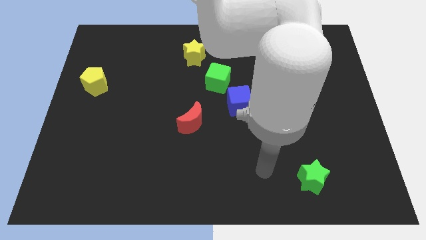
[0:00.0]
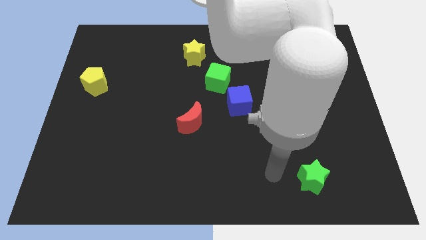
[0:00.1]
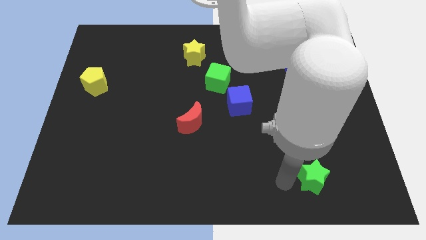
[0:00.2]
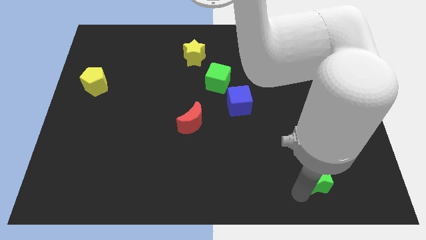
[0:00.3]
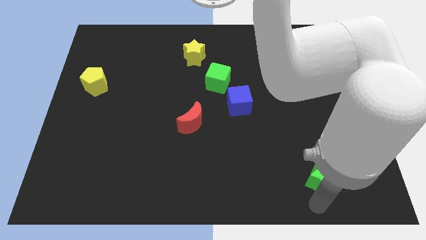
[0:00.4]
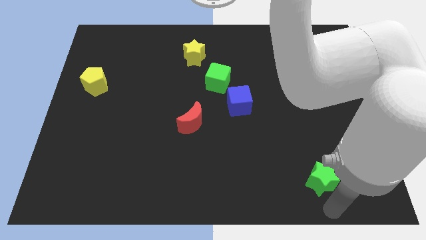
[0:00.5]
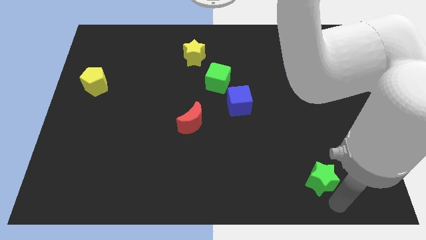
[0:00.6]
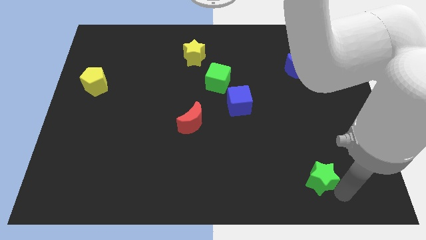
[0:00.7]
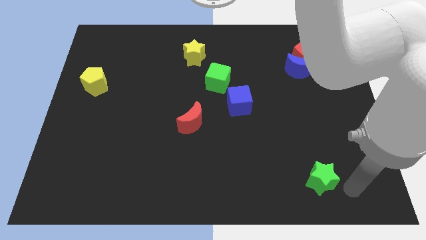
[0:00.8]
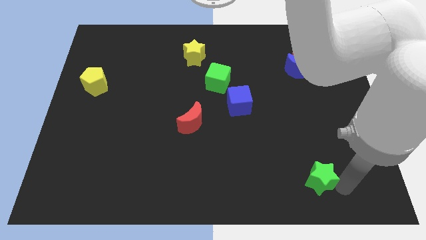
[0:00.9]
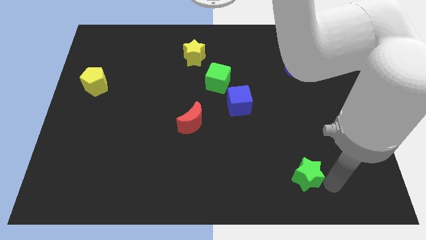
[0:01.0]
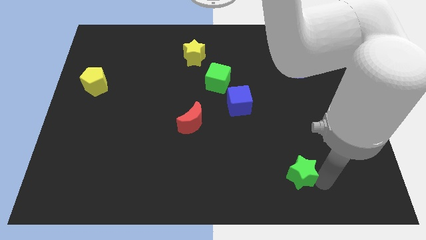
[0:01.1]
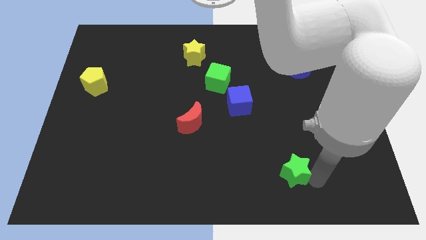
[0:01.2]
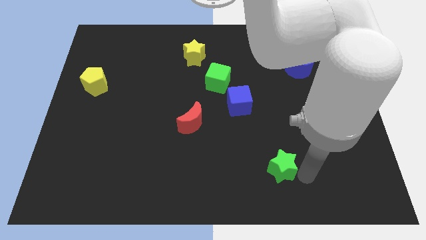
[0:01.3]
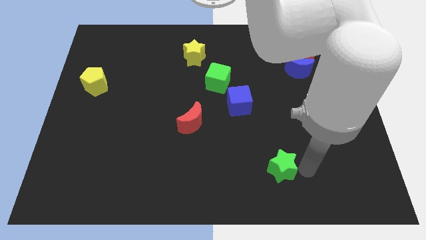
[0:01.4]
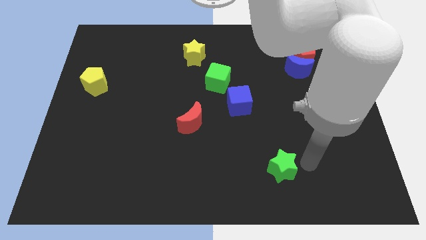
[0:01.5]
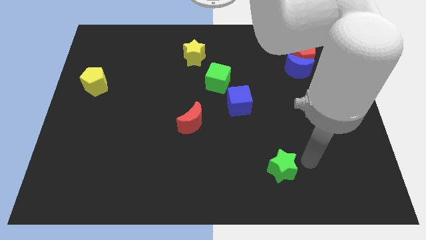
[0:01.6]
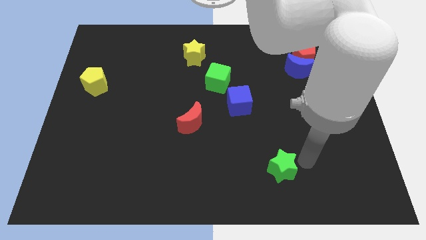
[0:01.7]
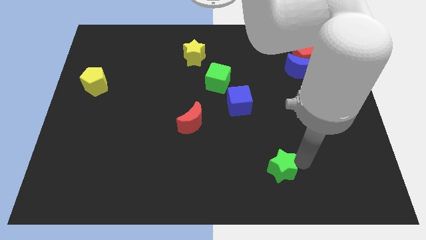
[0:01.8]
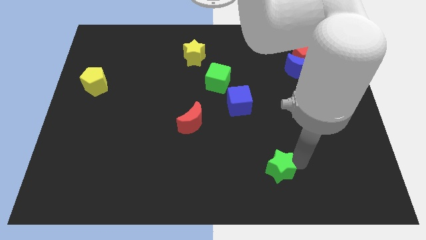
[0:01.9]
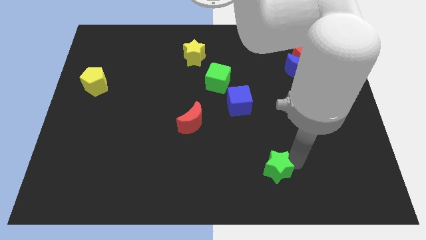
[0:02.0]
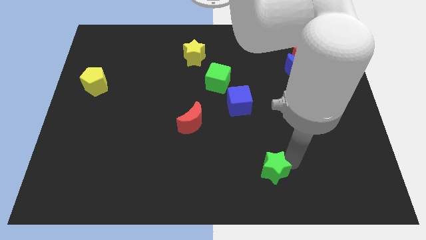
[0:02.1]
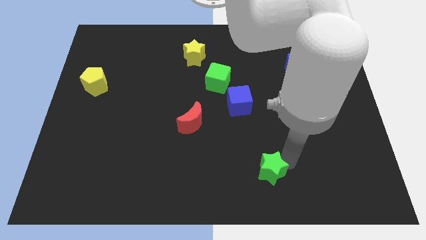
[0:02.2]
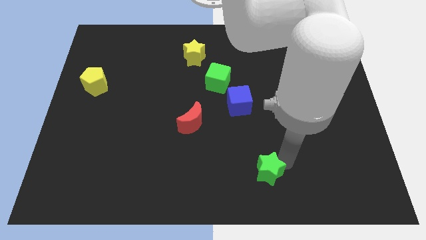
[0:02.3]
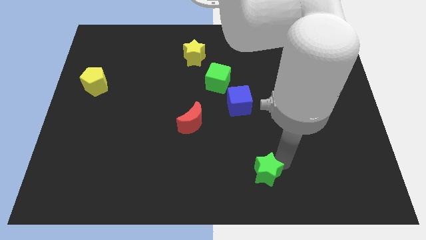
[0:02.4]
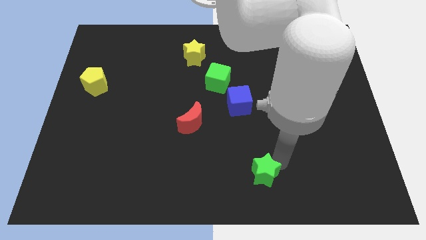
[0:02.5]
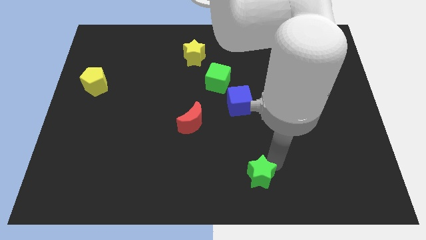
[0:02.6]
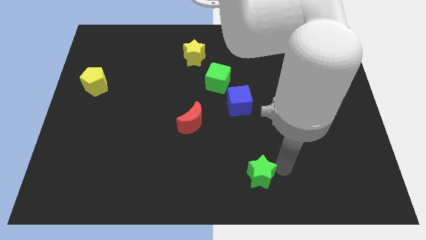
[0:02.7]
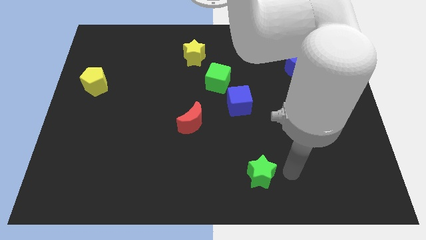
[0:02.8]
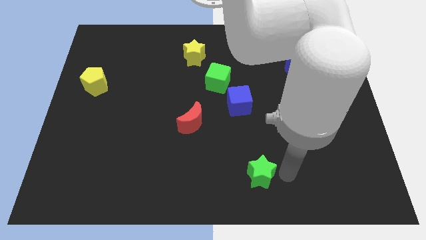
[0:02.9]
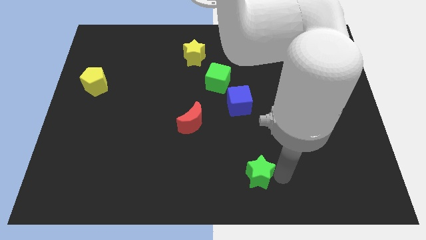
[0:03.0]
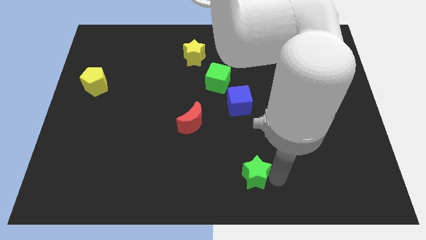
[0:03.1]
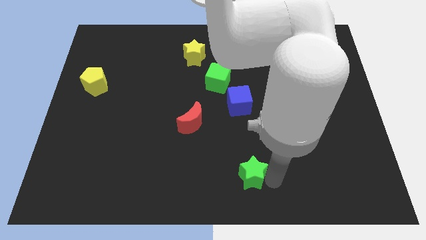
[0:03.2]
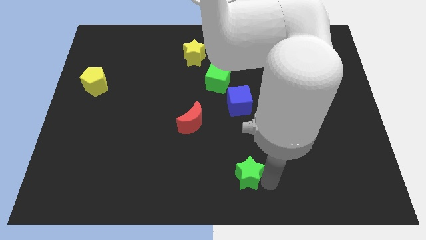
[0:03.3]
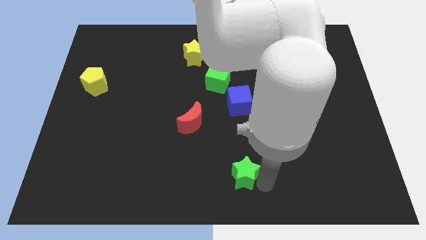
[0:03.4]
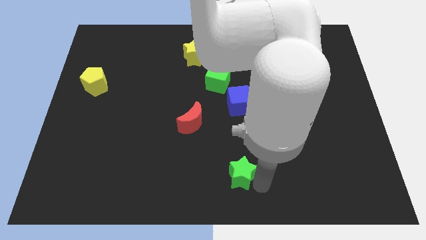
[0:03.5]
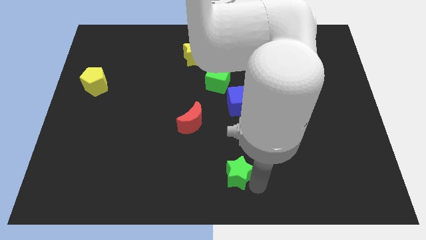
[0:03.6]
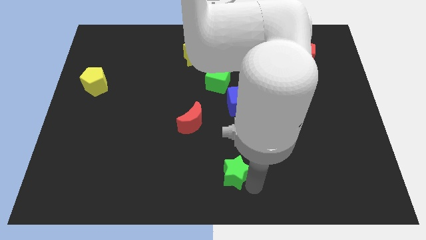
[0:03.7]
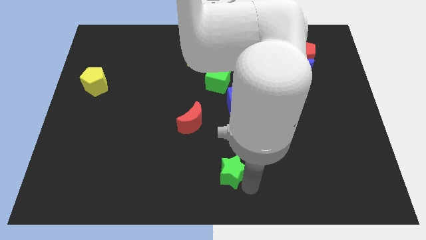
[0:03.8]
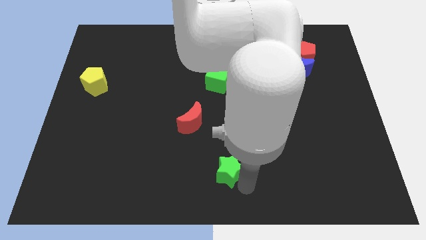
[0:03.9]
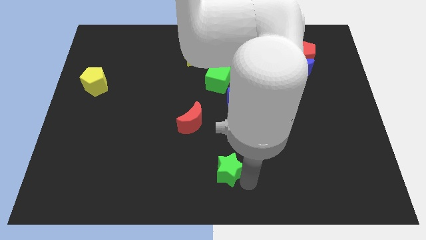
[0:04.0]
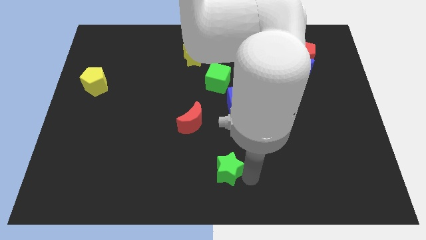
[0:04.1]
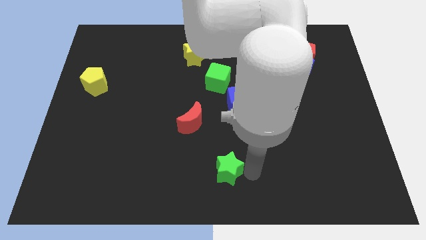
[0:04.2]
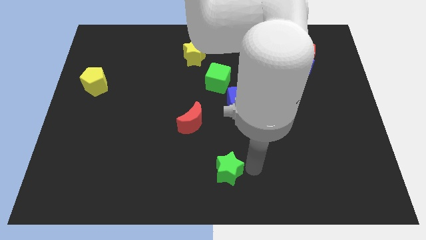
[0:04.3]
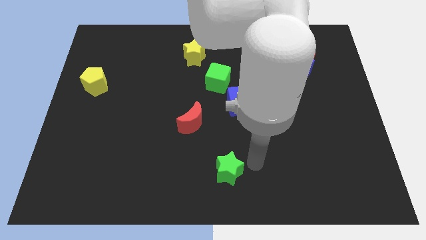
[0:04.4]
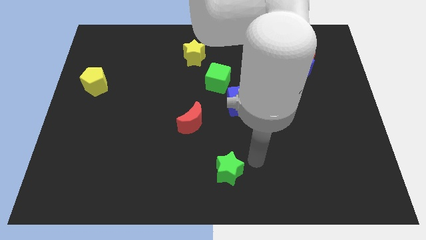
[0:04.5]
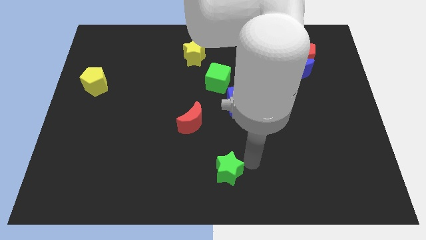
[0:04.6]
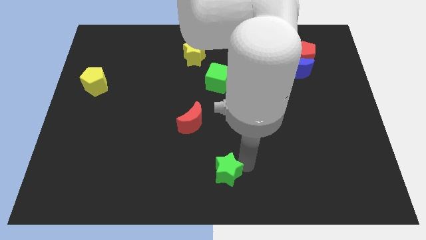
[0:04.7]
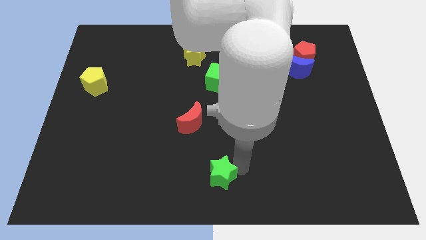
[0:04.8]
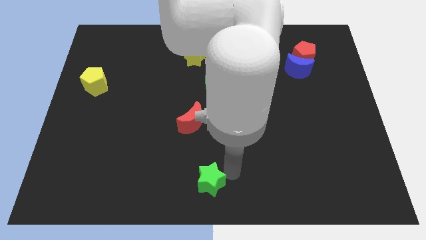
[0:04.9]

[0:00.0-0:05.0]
move the green star to the left

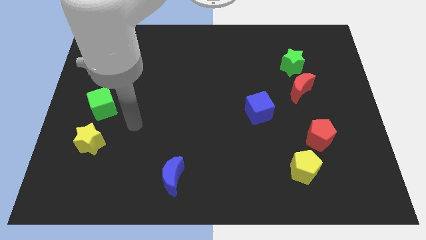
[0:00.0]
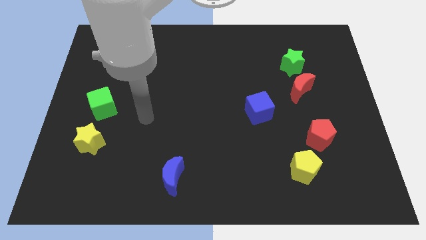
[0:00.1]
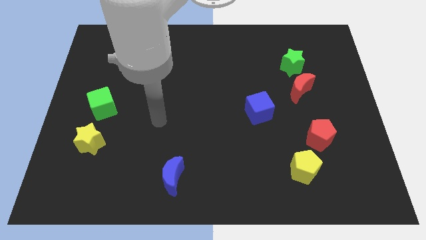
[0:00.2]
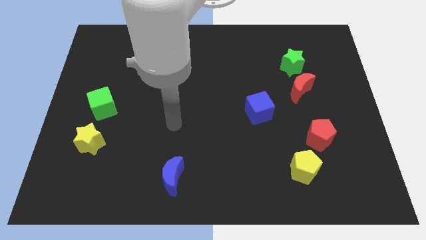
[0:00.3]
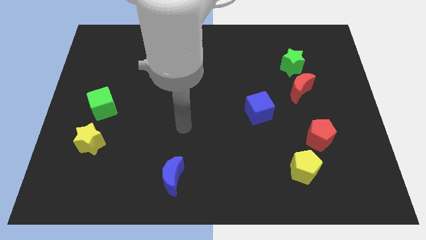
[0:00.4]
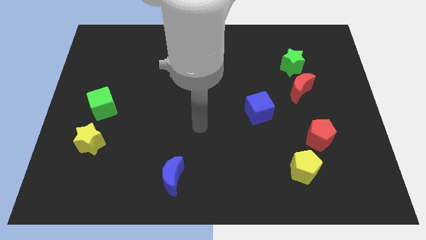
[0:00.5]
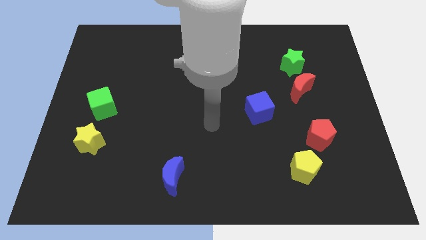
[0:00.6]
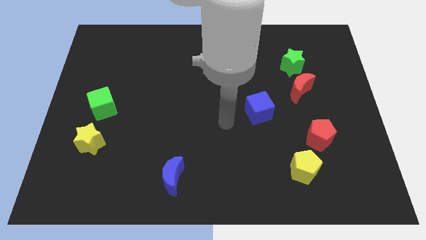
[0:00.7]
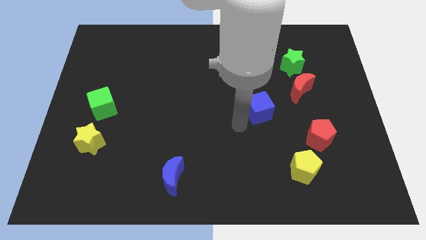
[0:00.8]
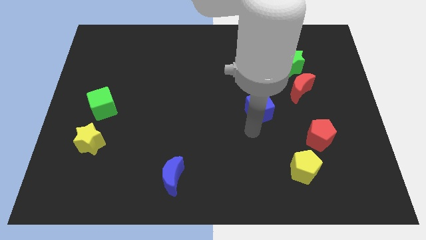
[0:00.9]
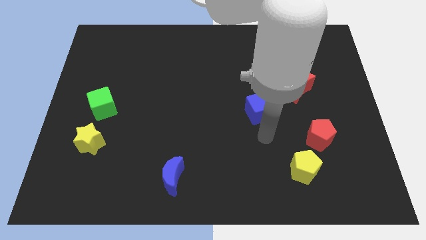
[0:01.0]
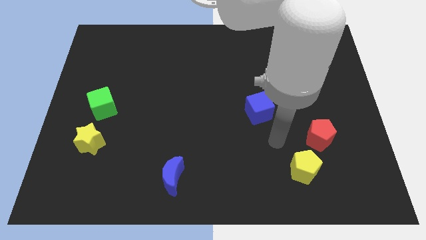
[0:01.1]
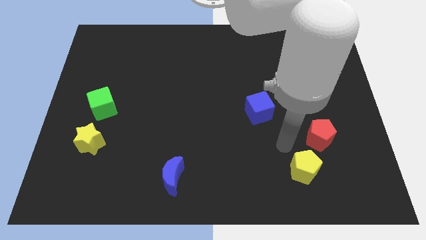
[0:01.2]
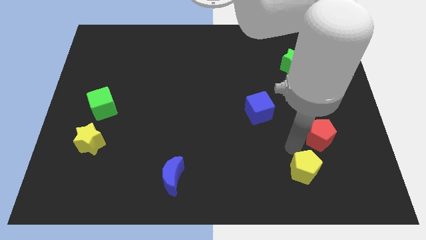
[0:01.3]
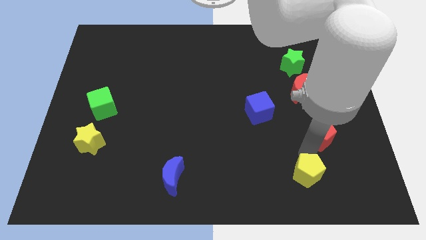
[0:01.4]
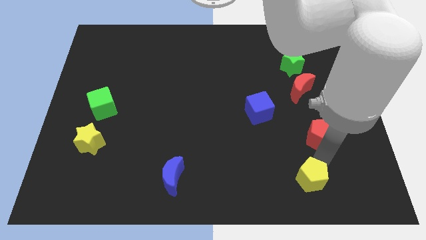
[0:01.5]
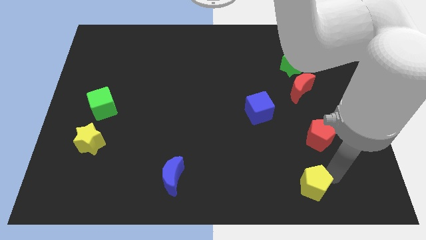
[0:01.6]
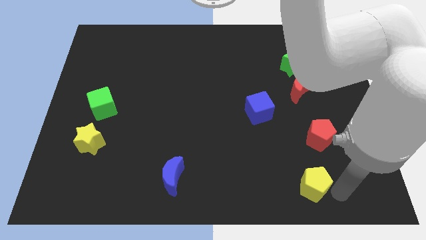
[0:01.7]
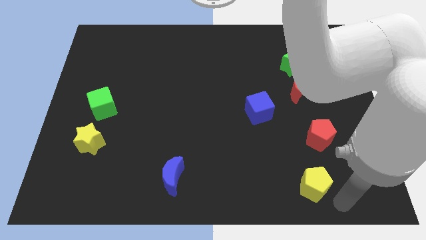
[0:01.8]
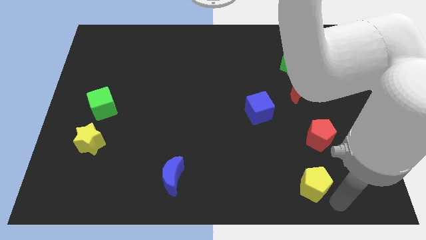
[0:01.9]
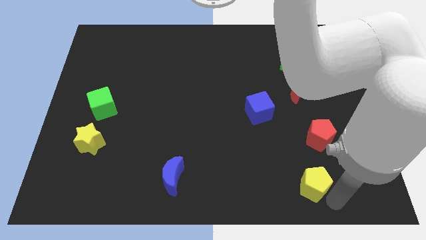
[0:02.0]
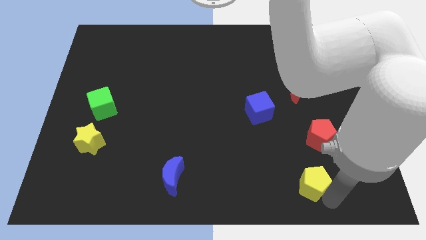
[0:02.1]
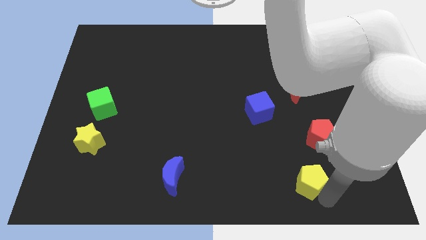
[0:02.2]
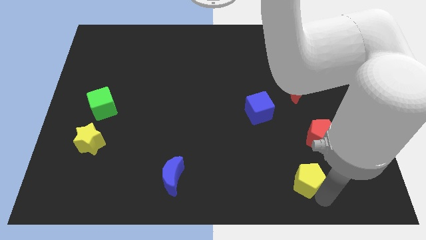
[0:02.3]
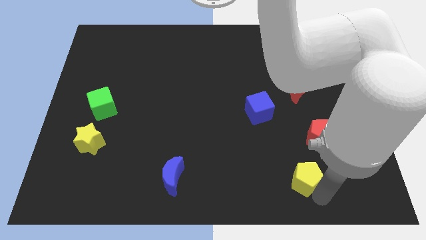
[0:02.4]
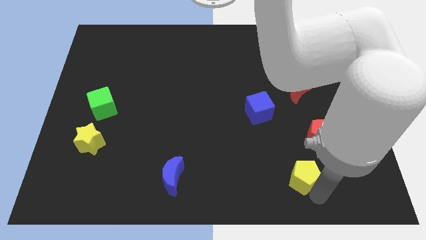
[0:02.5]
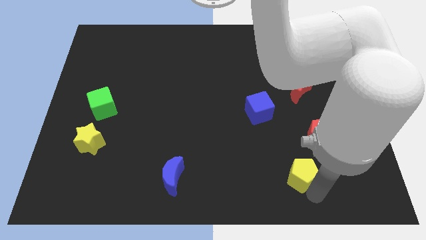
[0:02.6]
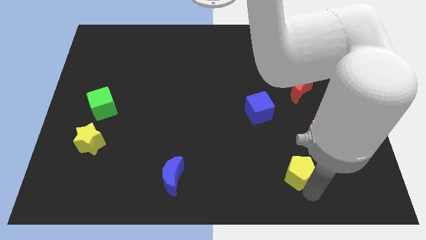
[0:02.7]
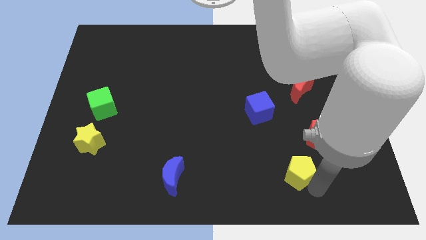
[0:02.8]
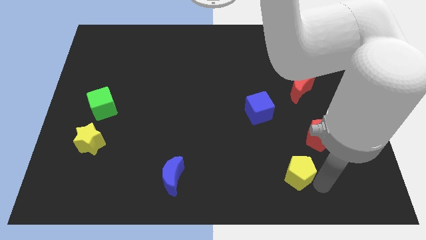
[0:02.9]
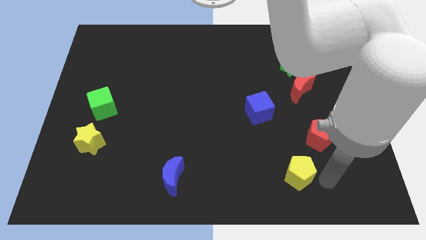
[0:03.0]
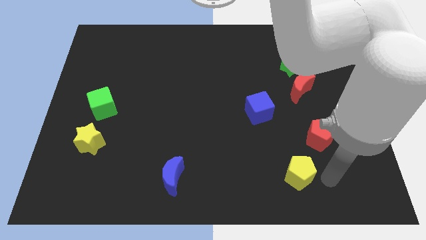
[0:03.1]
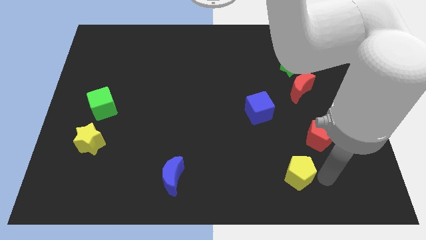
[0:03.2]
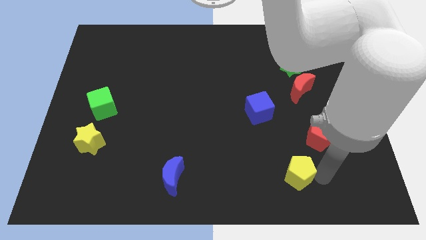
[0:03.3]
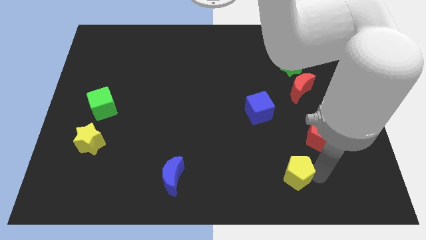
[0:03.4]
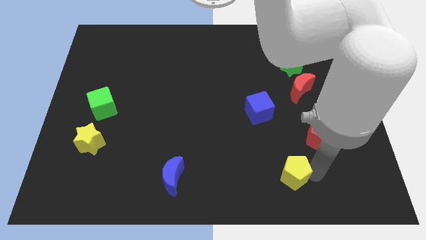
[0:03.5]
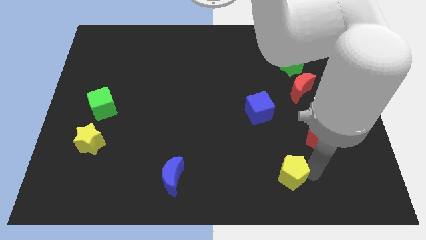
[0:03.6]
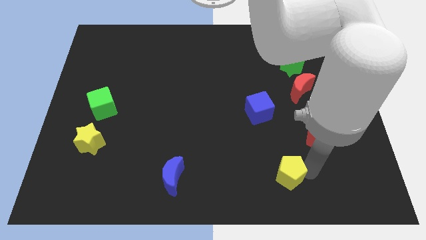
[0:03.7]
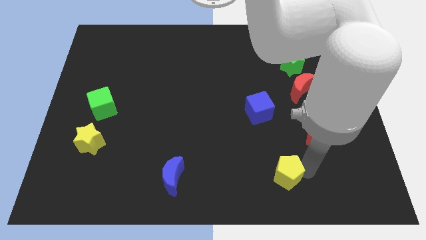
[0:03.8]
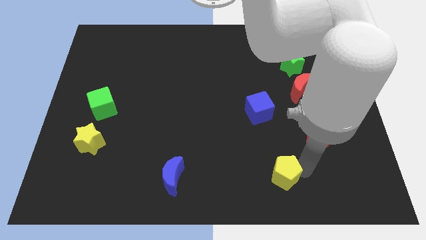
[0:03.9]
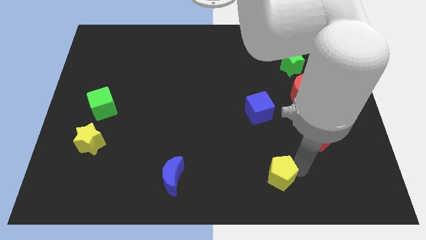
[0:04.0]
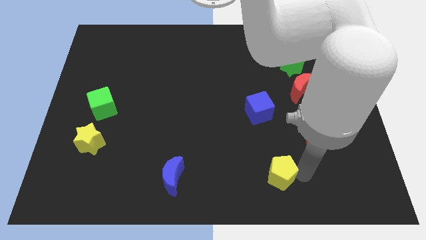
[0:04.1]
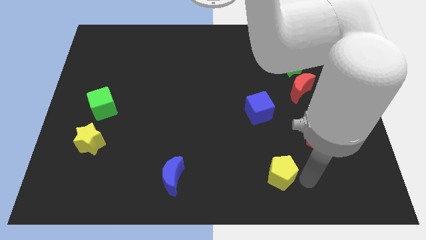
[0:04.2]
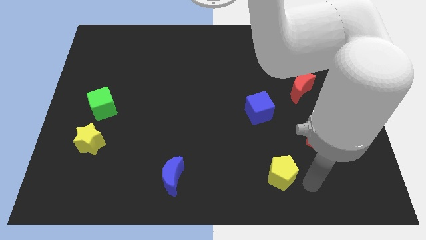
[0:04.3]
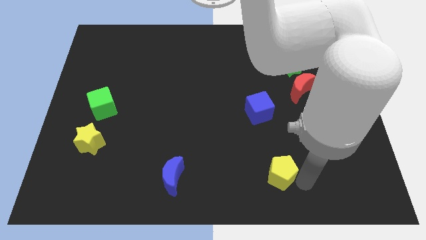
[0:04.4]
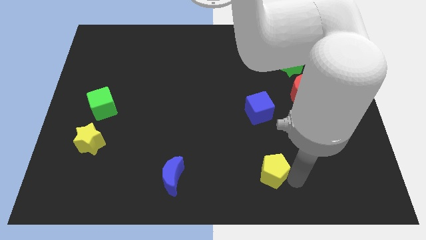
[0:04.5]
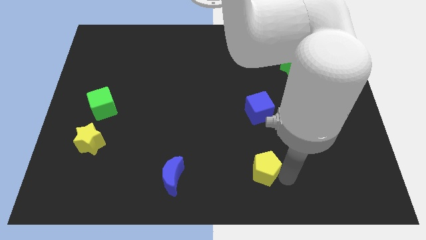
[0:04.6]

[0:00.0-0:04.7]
move the yellow pentagon left a bit
